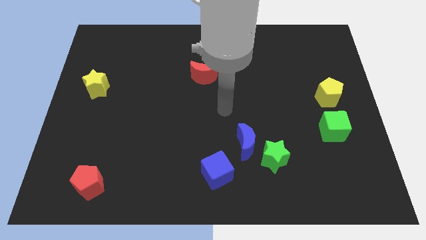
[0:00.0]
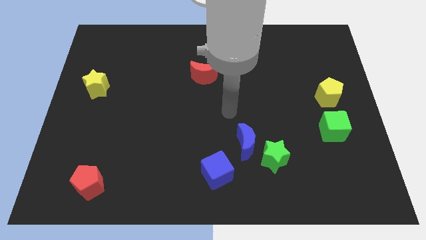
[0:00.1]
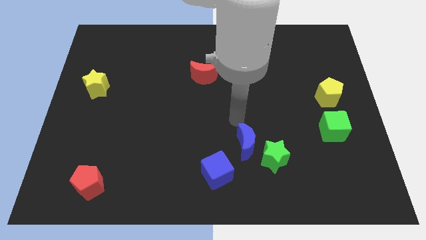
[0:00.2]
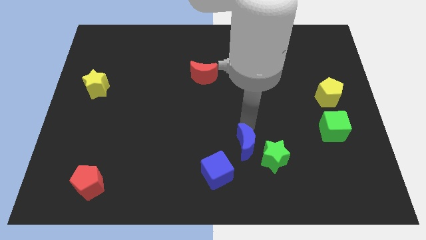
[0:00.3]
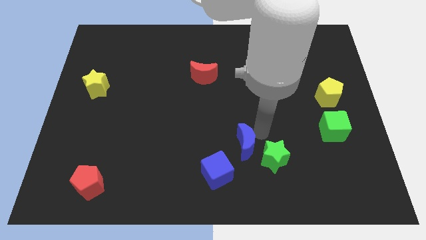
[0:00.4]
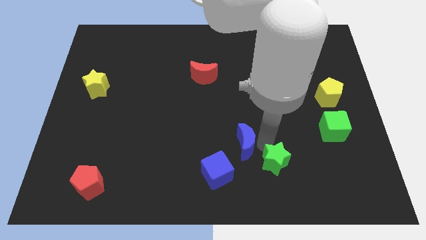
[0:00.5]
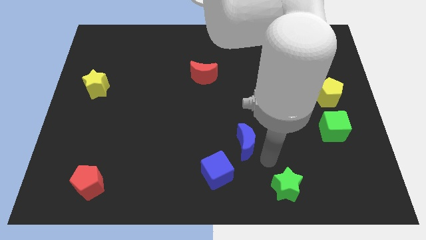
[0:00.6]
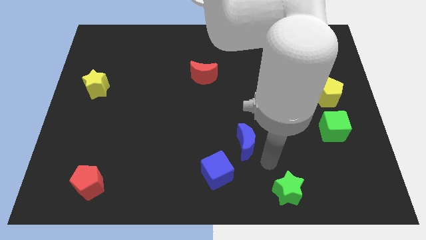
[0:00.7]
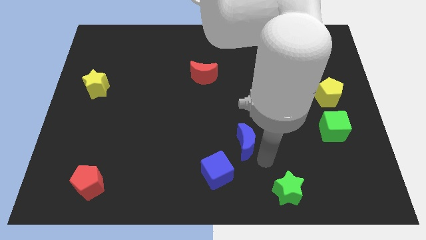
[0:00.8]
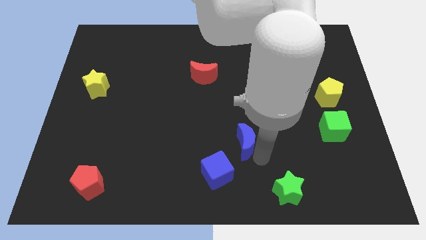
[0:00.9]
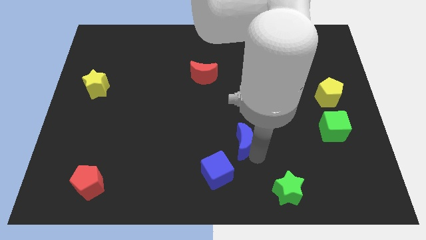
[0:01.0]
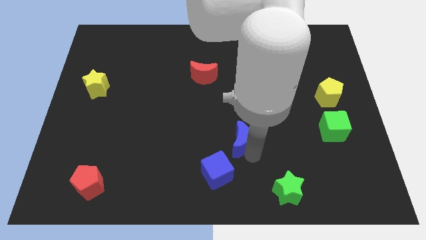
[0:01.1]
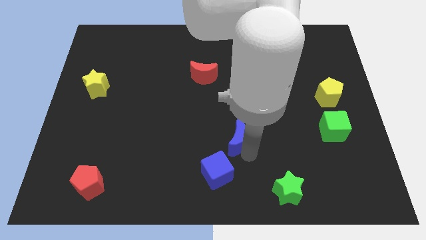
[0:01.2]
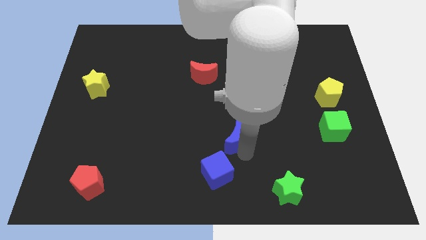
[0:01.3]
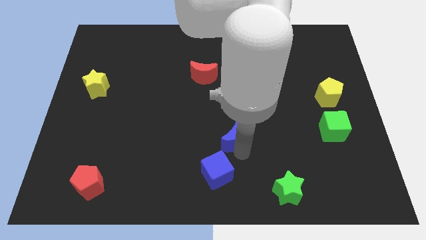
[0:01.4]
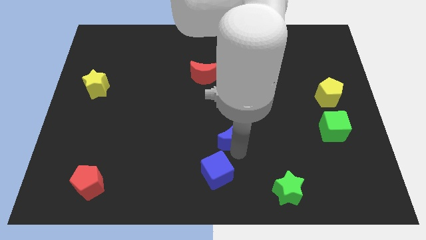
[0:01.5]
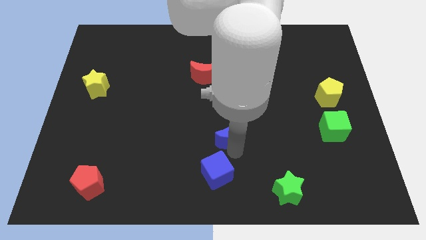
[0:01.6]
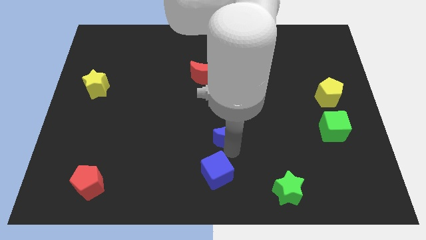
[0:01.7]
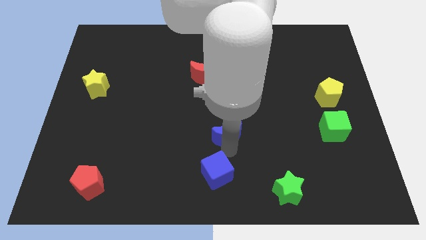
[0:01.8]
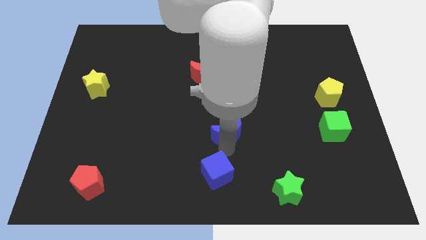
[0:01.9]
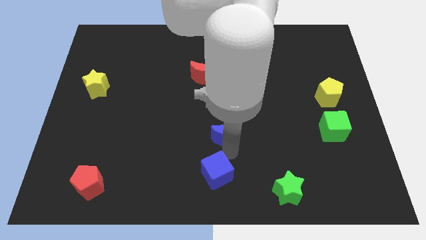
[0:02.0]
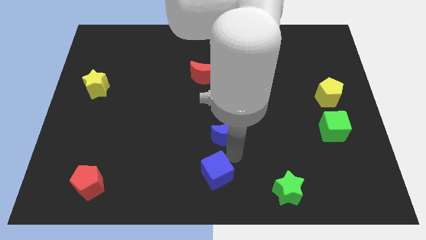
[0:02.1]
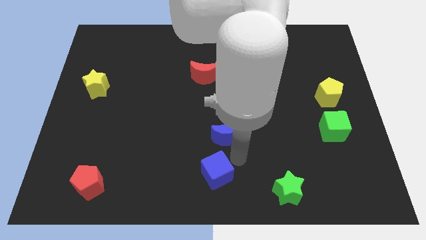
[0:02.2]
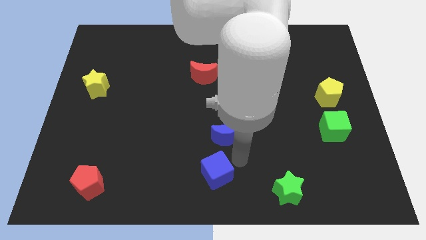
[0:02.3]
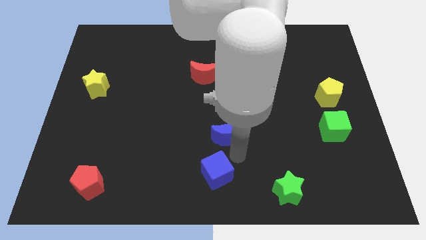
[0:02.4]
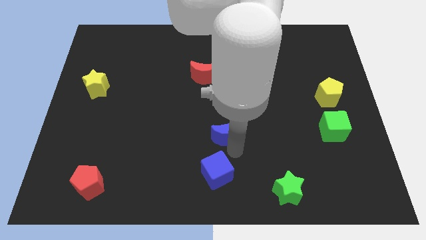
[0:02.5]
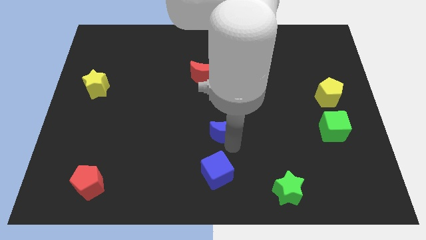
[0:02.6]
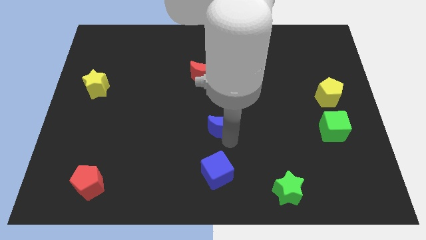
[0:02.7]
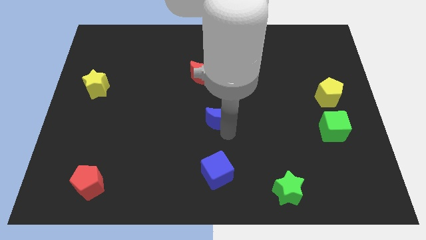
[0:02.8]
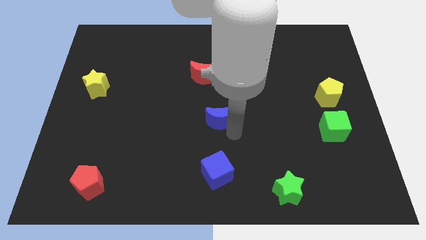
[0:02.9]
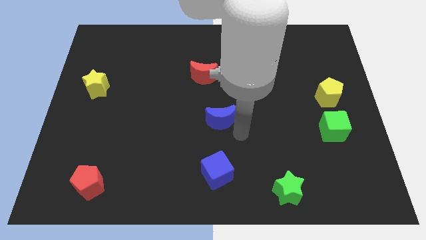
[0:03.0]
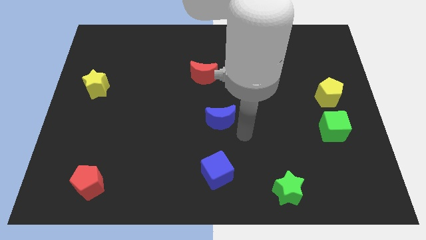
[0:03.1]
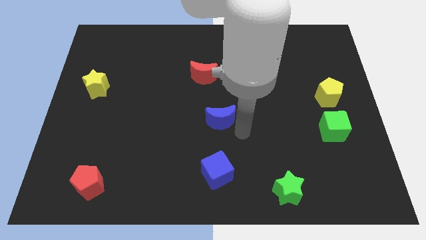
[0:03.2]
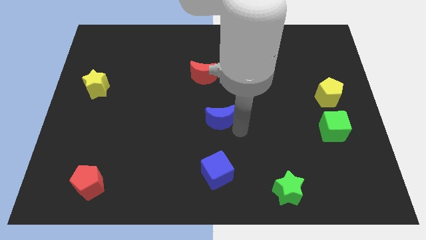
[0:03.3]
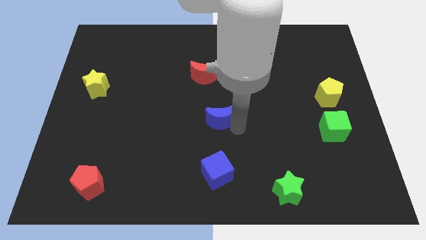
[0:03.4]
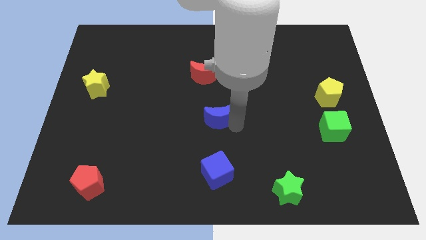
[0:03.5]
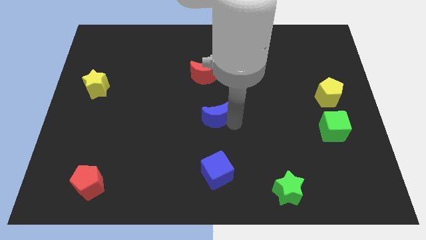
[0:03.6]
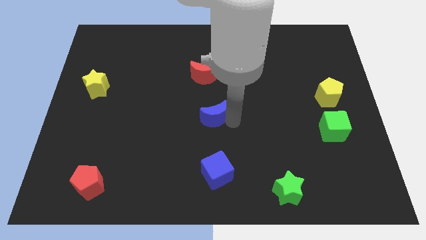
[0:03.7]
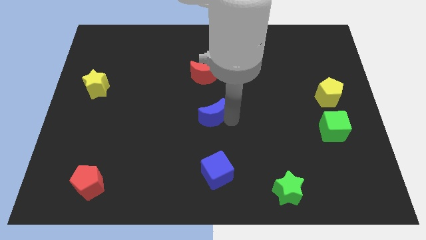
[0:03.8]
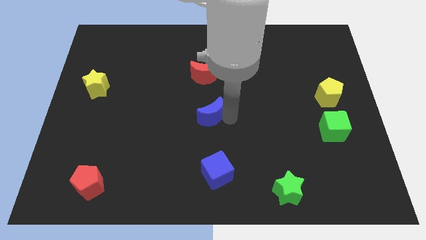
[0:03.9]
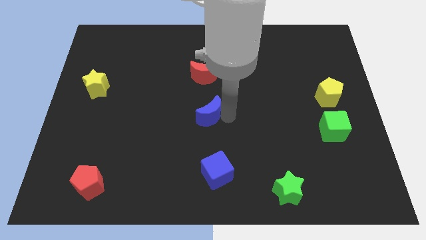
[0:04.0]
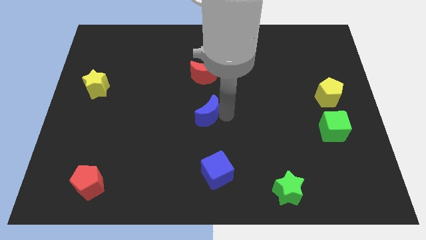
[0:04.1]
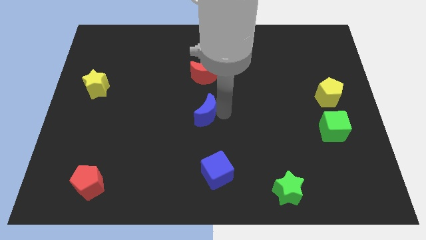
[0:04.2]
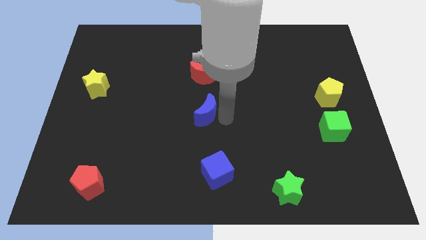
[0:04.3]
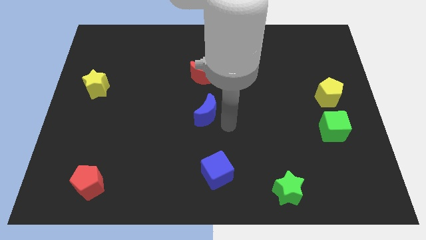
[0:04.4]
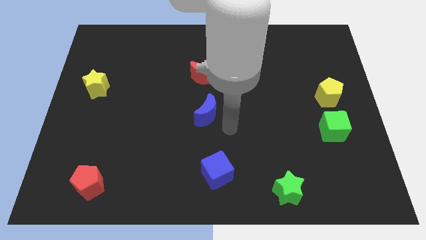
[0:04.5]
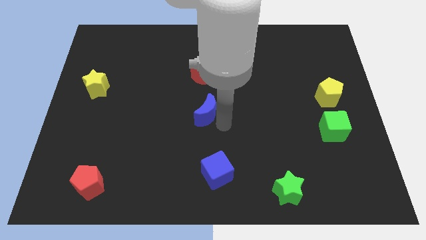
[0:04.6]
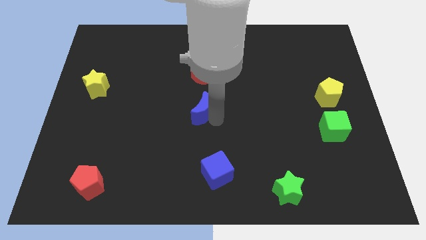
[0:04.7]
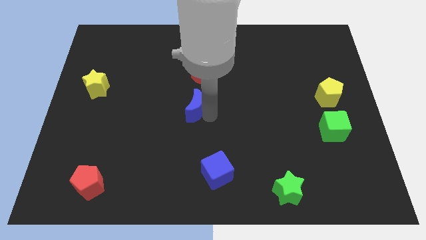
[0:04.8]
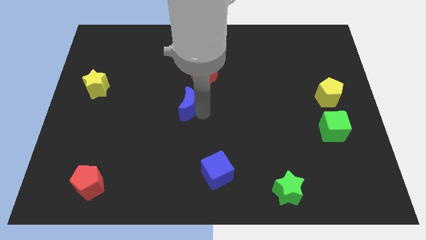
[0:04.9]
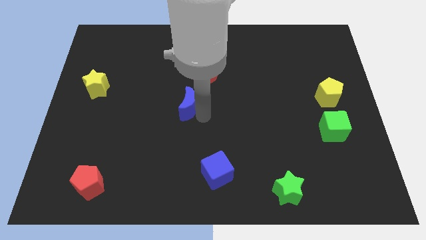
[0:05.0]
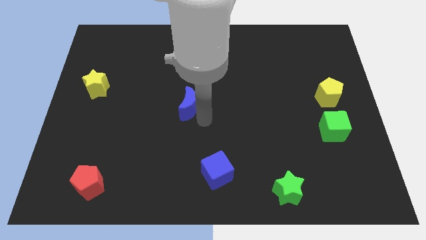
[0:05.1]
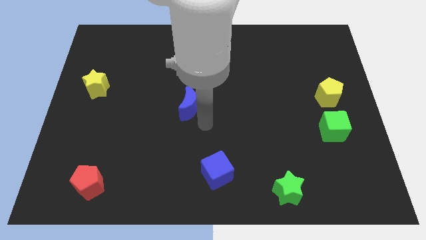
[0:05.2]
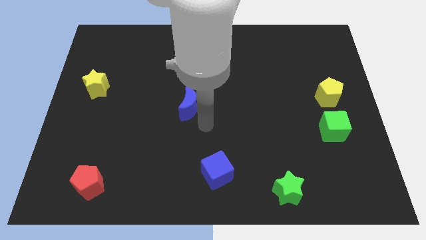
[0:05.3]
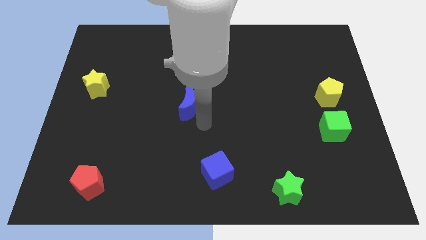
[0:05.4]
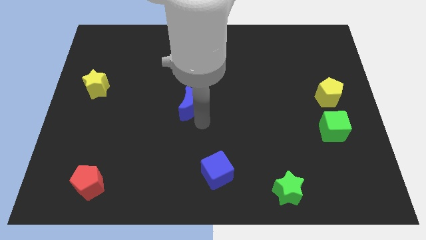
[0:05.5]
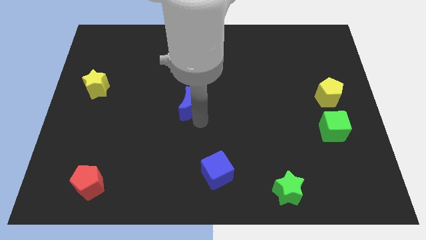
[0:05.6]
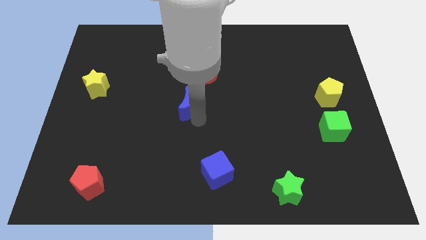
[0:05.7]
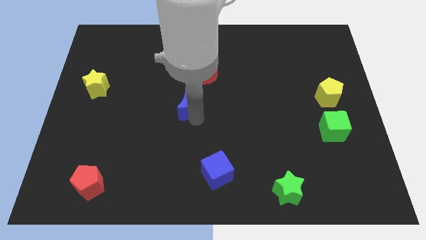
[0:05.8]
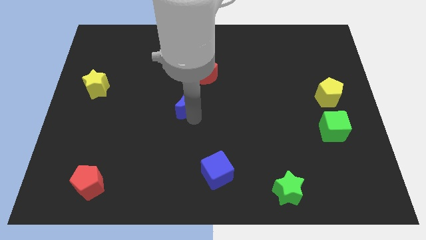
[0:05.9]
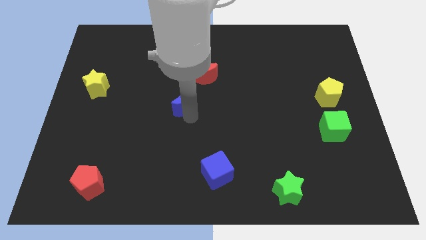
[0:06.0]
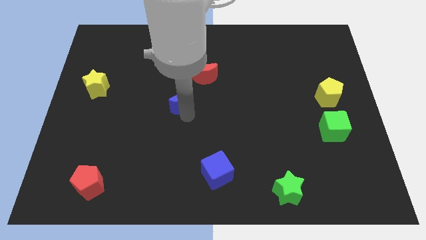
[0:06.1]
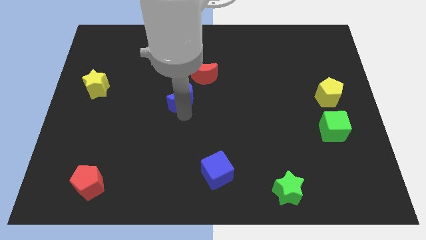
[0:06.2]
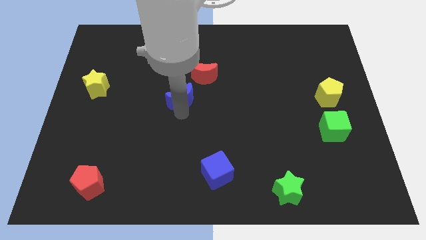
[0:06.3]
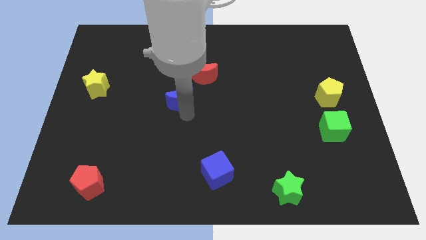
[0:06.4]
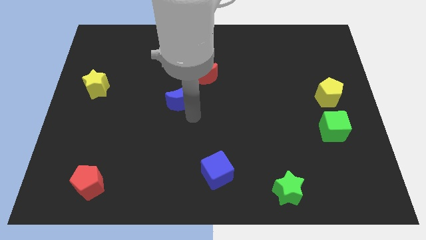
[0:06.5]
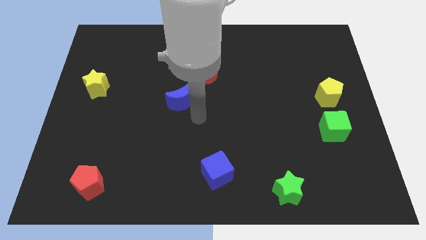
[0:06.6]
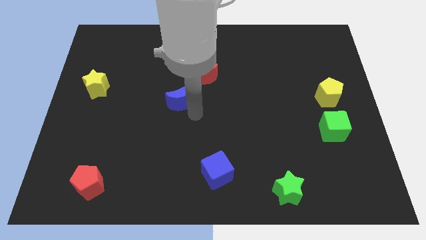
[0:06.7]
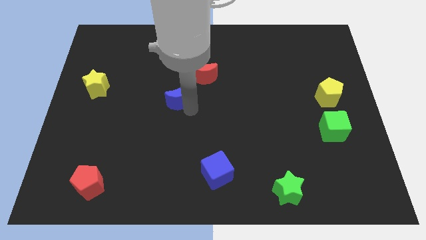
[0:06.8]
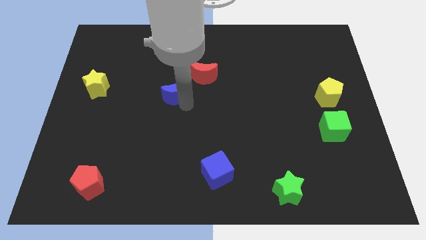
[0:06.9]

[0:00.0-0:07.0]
push the blue moon upwards and then left

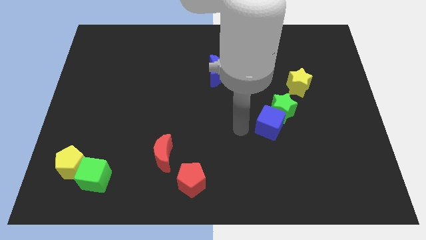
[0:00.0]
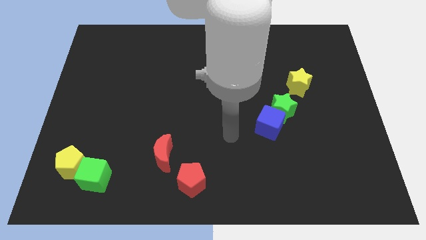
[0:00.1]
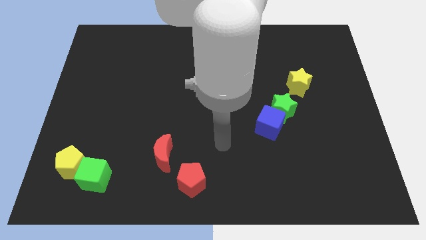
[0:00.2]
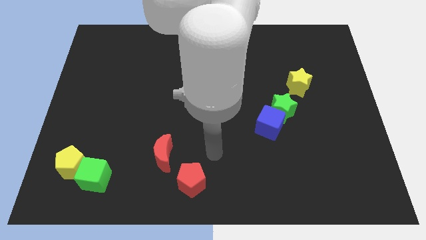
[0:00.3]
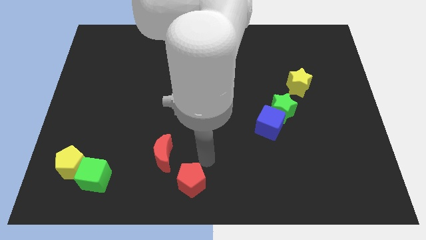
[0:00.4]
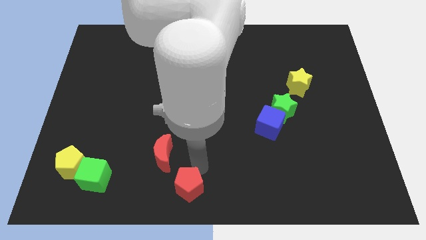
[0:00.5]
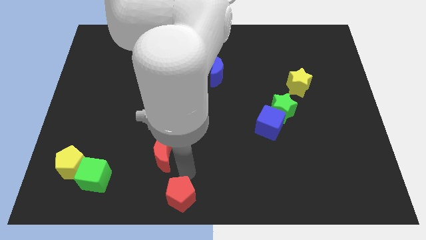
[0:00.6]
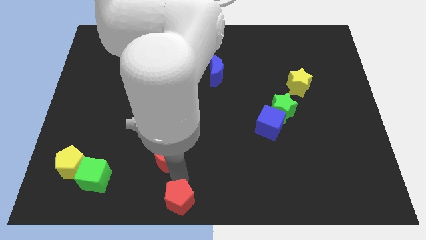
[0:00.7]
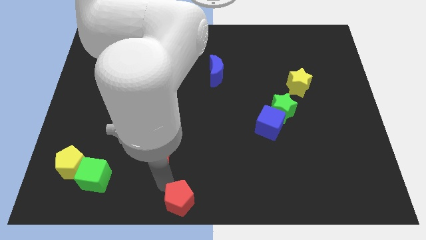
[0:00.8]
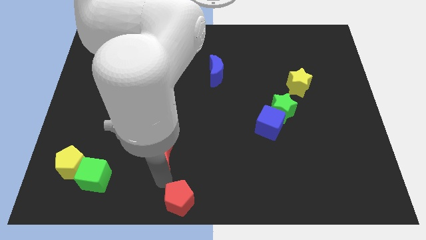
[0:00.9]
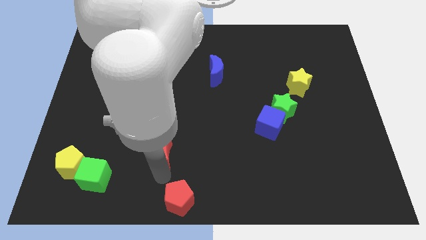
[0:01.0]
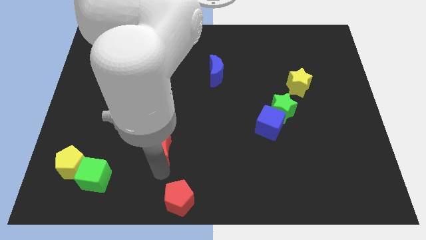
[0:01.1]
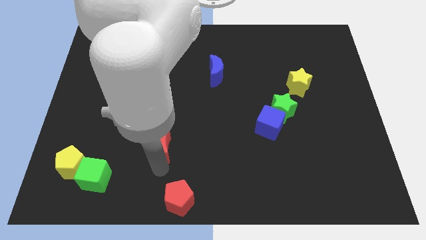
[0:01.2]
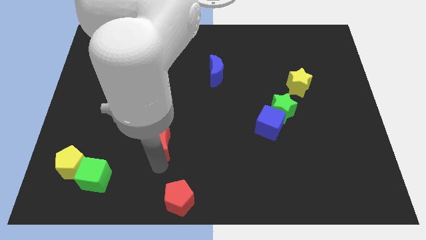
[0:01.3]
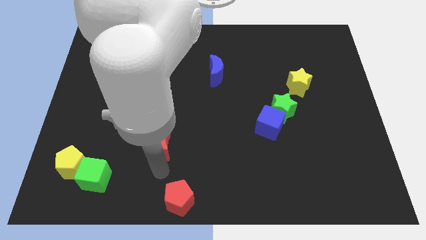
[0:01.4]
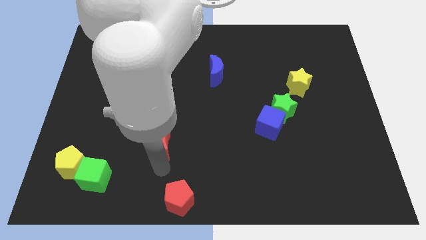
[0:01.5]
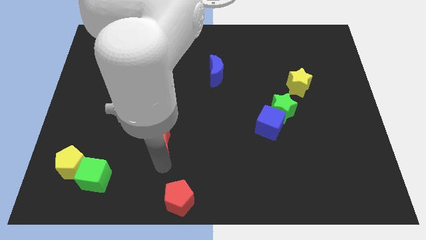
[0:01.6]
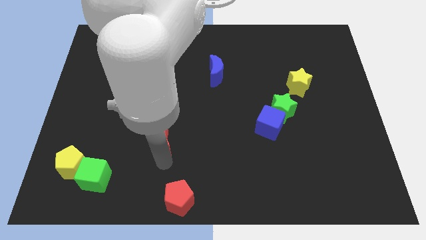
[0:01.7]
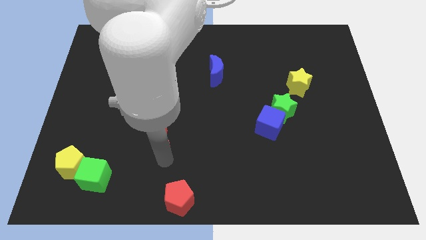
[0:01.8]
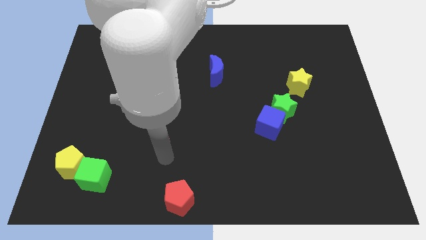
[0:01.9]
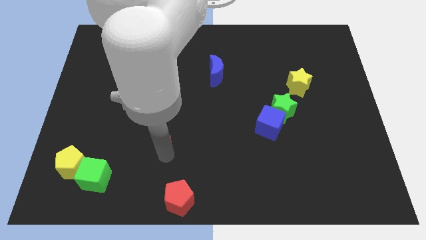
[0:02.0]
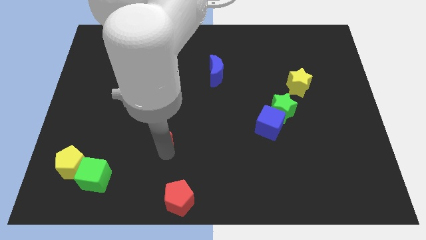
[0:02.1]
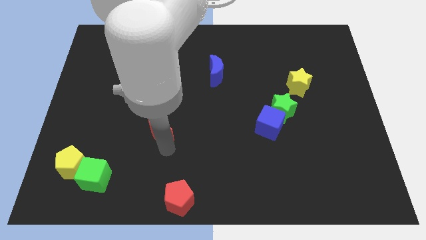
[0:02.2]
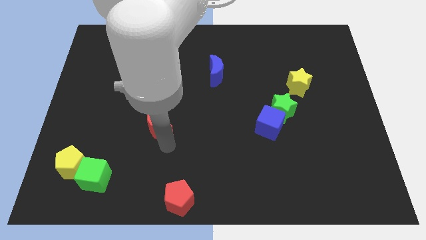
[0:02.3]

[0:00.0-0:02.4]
slightly move the red moon up
